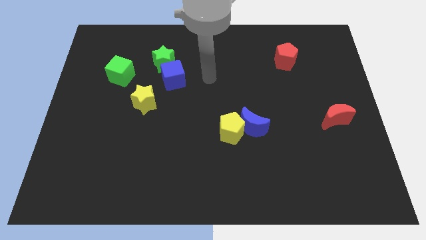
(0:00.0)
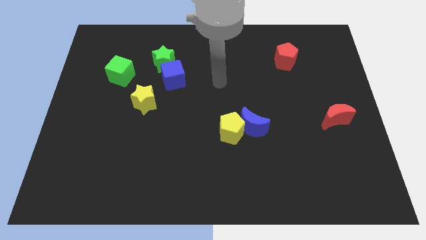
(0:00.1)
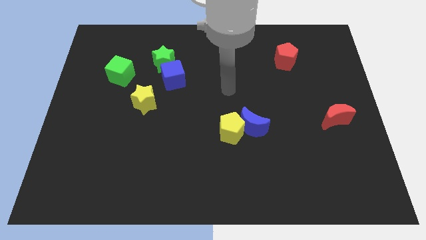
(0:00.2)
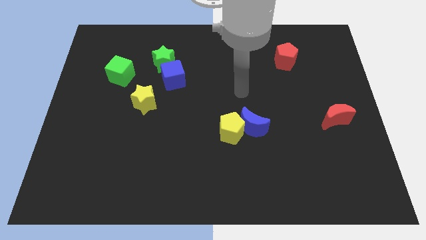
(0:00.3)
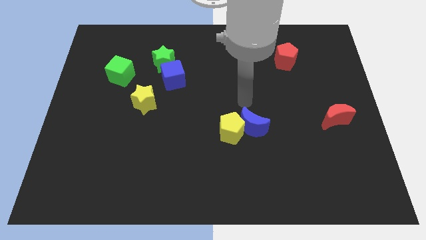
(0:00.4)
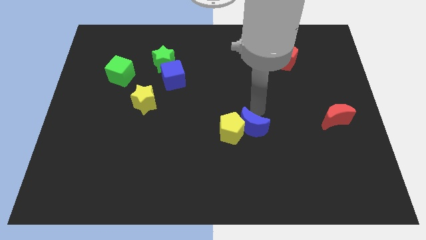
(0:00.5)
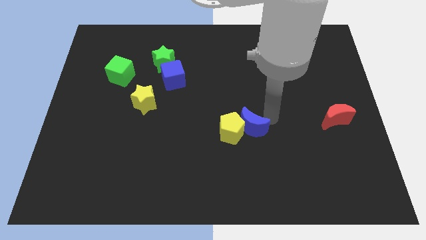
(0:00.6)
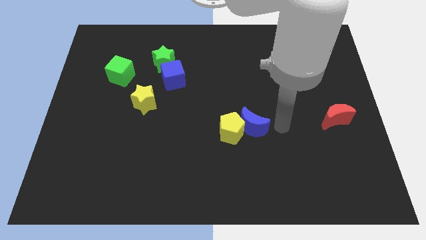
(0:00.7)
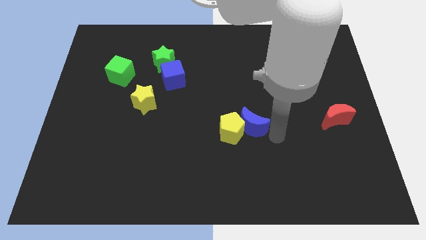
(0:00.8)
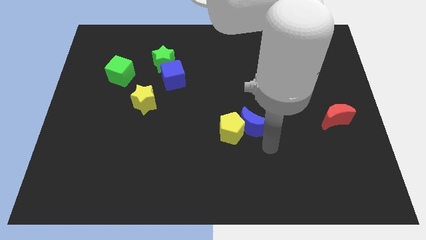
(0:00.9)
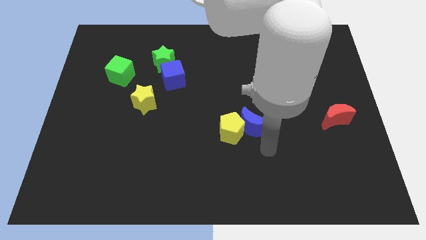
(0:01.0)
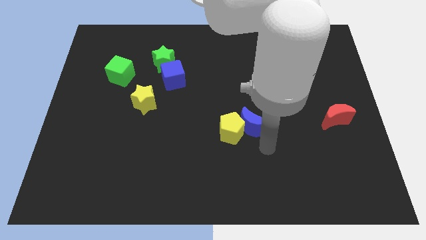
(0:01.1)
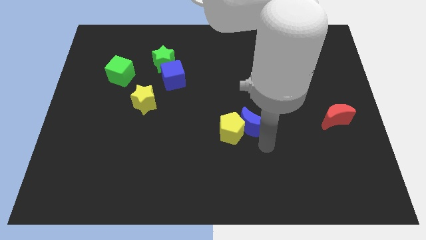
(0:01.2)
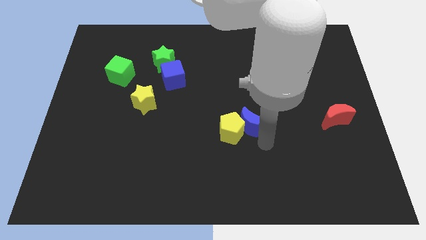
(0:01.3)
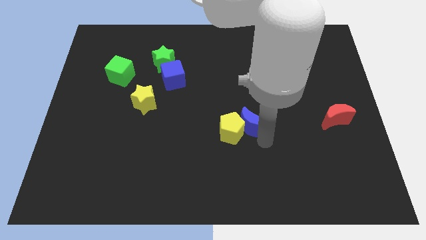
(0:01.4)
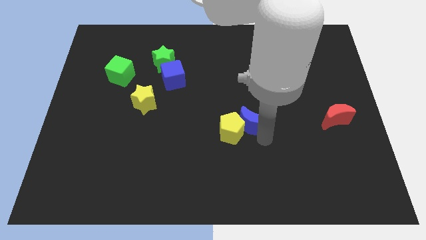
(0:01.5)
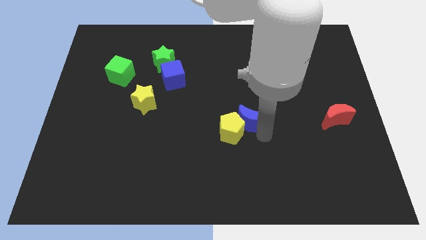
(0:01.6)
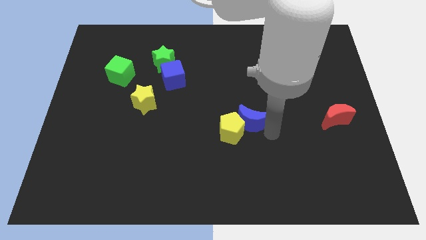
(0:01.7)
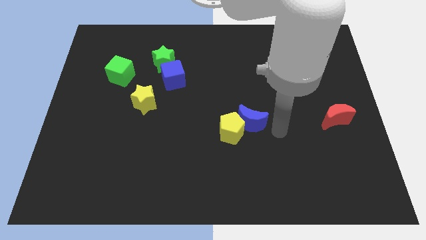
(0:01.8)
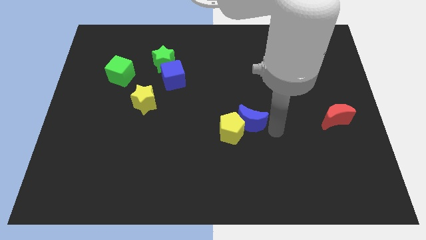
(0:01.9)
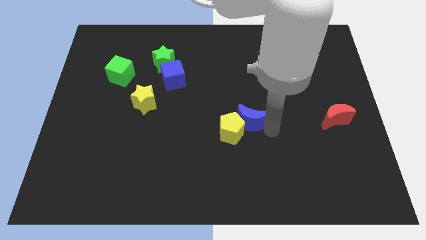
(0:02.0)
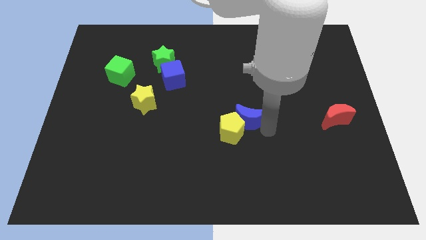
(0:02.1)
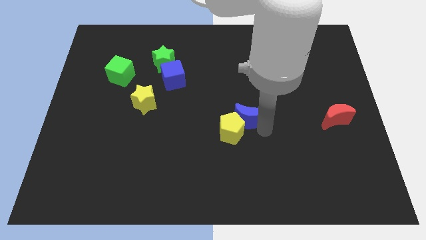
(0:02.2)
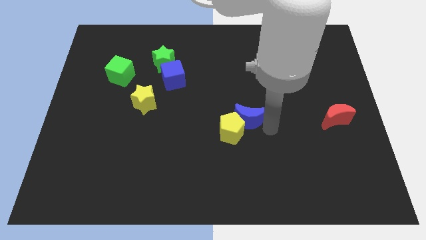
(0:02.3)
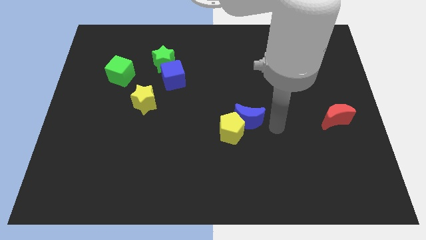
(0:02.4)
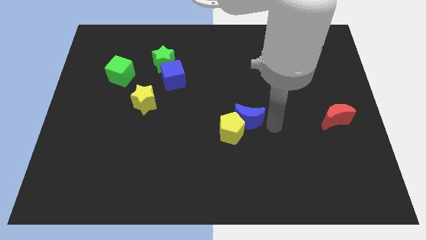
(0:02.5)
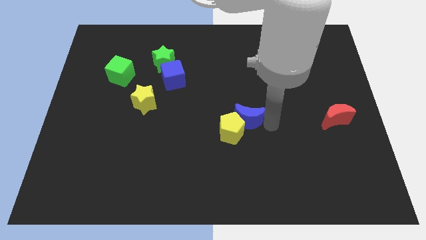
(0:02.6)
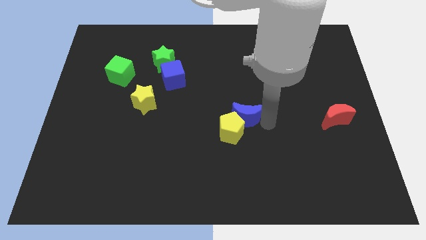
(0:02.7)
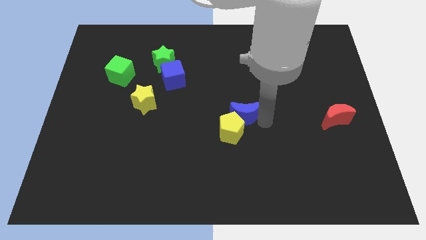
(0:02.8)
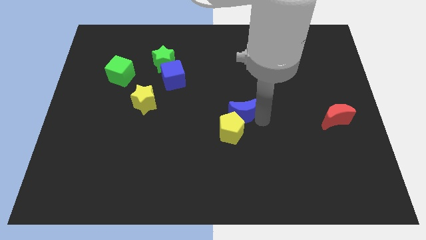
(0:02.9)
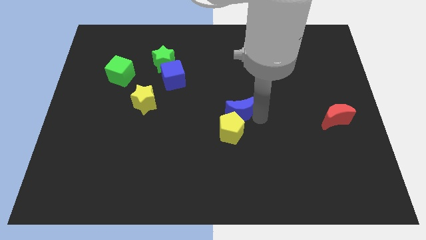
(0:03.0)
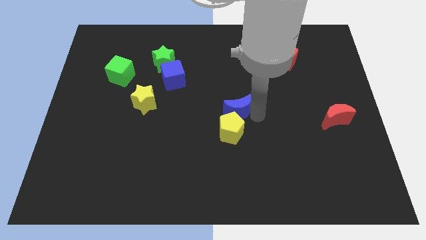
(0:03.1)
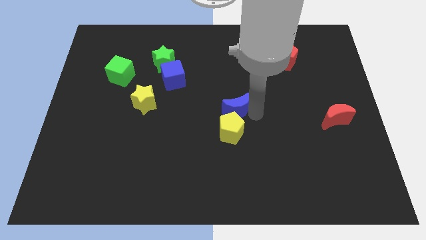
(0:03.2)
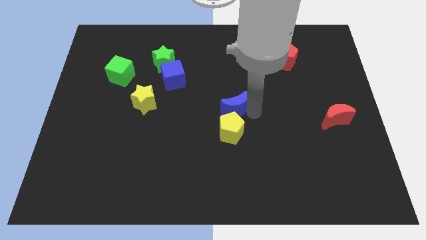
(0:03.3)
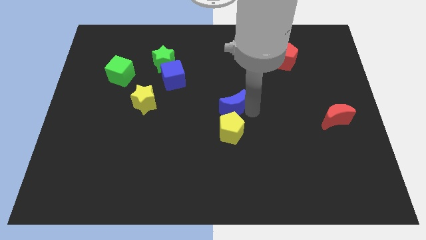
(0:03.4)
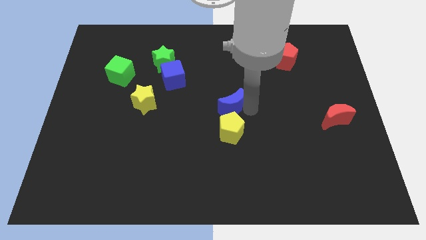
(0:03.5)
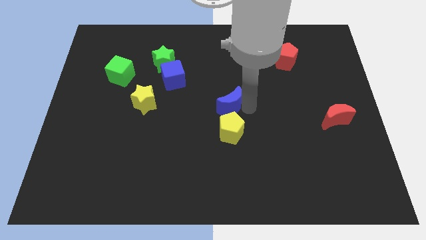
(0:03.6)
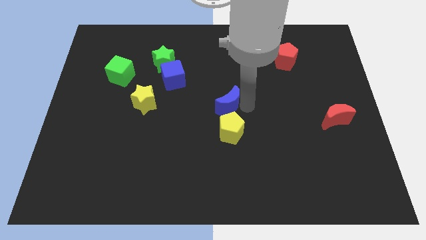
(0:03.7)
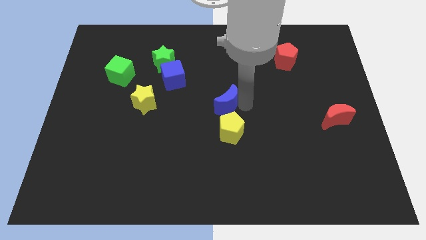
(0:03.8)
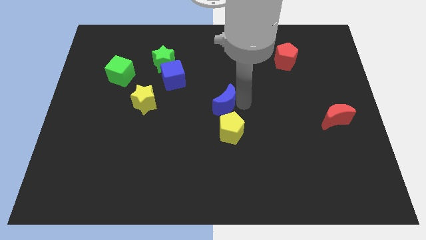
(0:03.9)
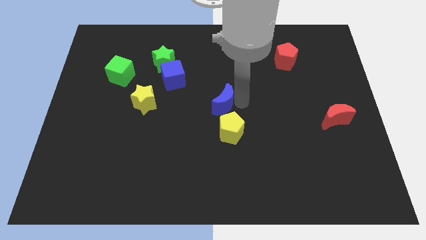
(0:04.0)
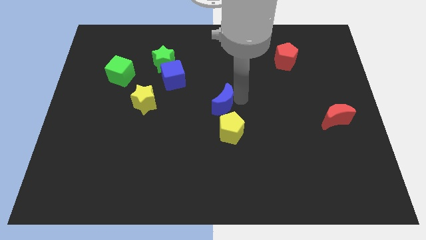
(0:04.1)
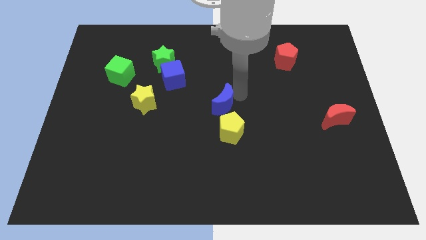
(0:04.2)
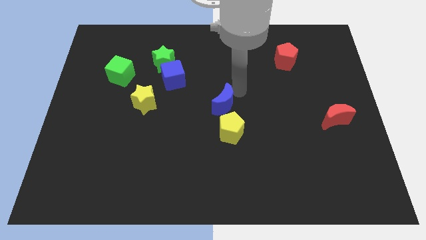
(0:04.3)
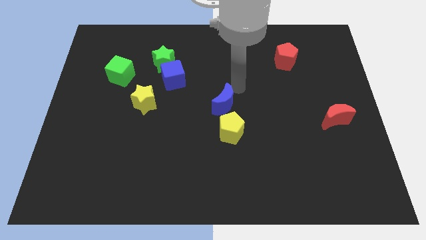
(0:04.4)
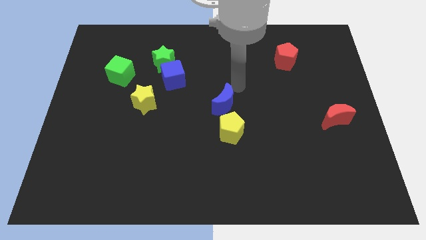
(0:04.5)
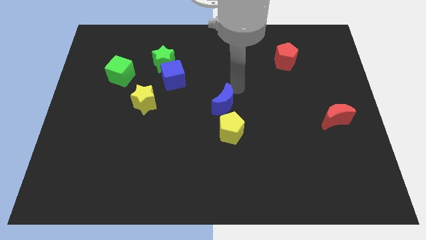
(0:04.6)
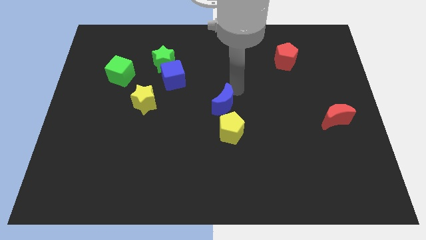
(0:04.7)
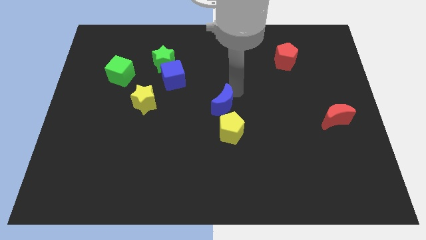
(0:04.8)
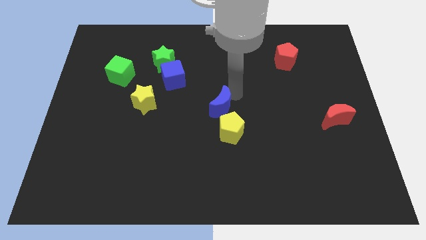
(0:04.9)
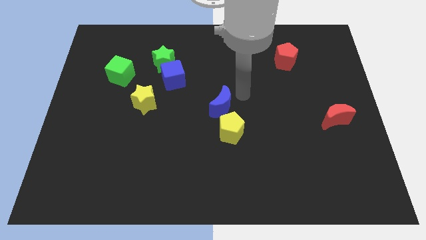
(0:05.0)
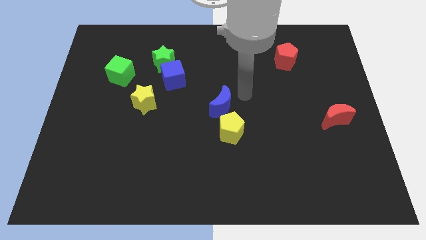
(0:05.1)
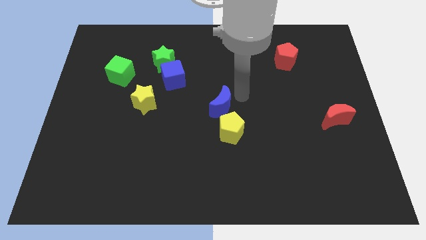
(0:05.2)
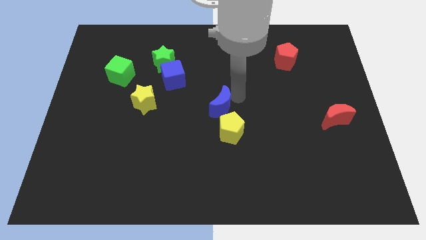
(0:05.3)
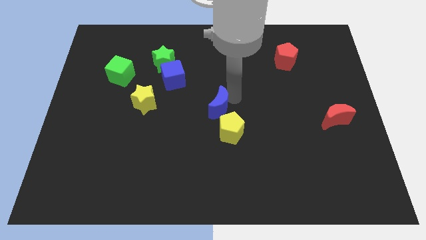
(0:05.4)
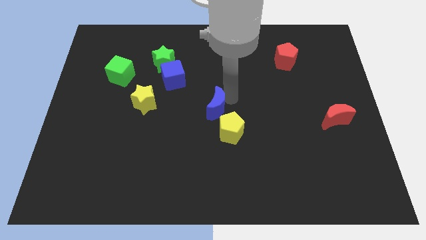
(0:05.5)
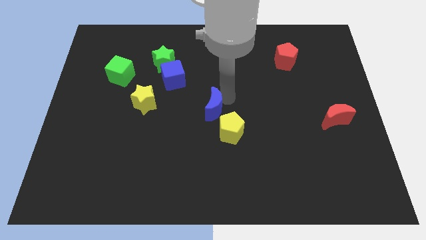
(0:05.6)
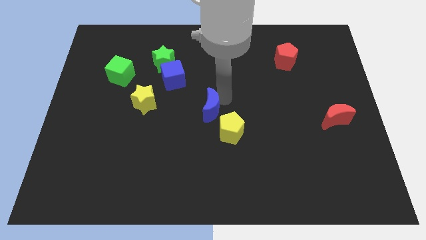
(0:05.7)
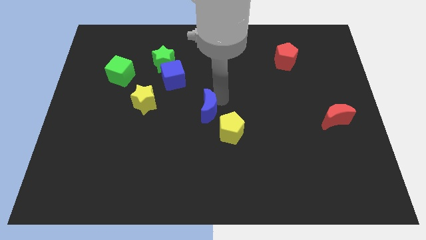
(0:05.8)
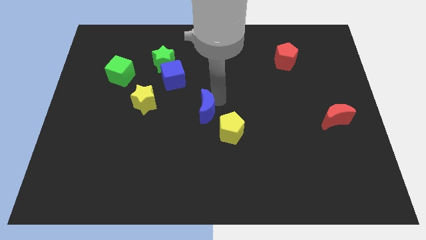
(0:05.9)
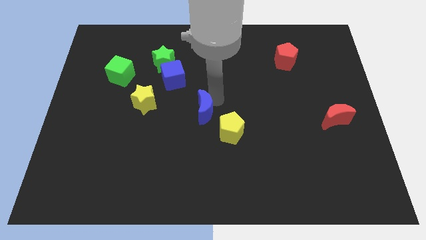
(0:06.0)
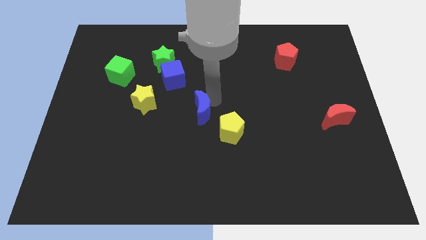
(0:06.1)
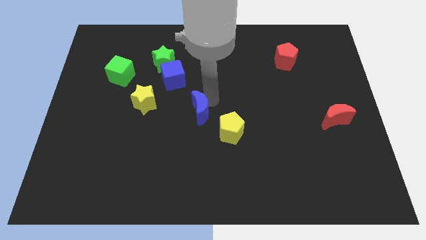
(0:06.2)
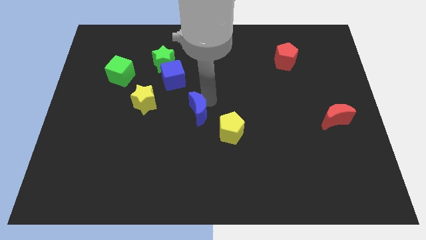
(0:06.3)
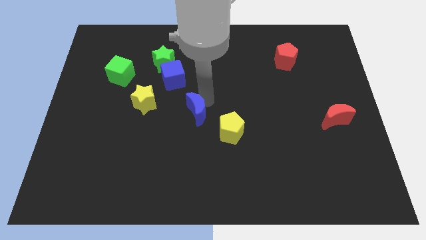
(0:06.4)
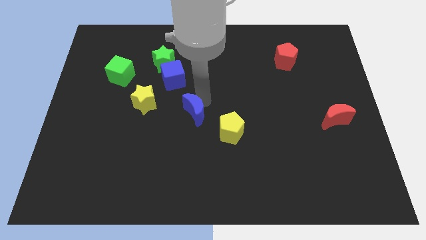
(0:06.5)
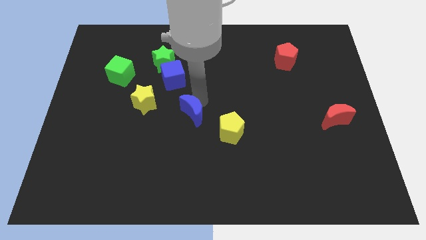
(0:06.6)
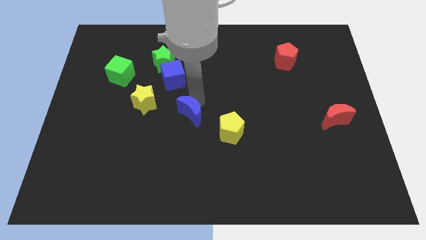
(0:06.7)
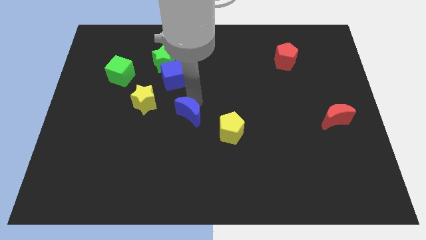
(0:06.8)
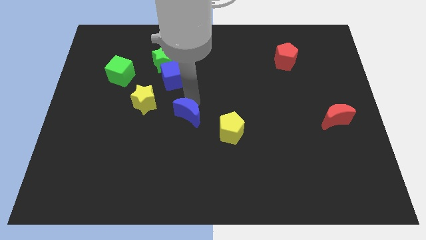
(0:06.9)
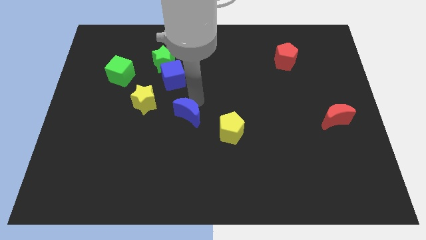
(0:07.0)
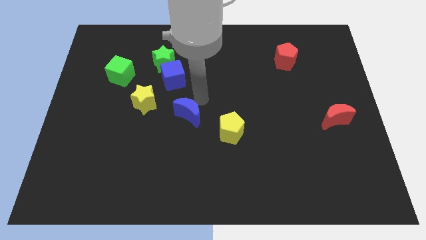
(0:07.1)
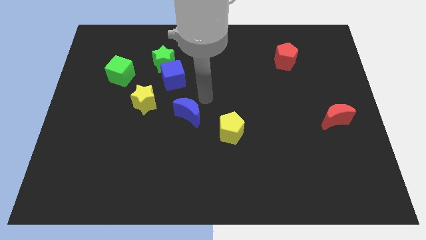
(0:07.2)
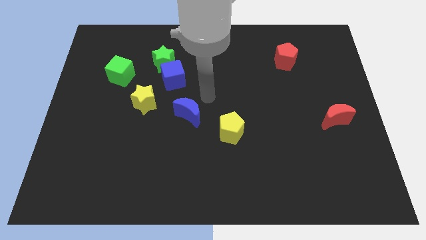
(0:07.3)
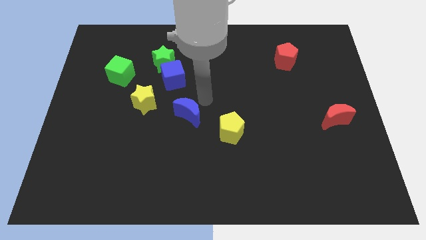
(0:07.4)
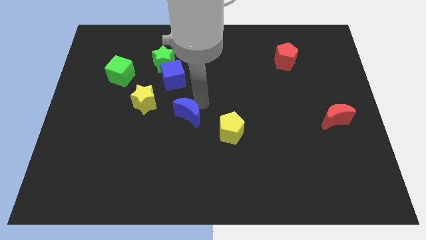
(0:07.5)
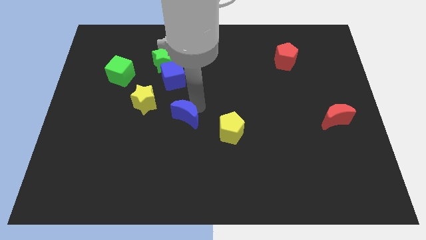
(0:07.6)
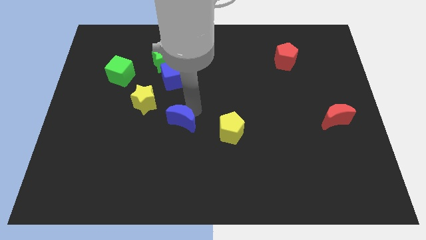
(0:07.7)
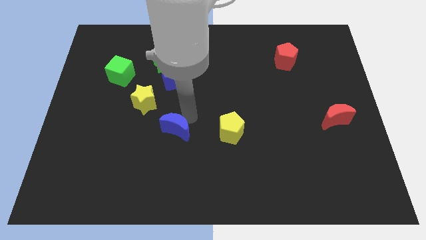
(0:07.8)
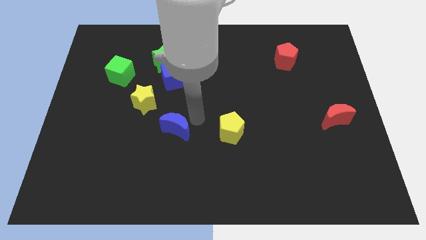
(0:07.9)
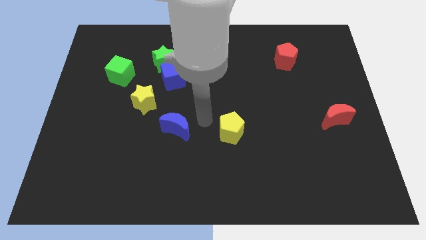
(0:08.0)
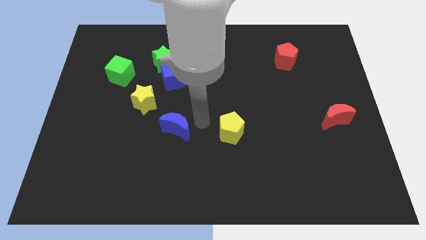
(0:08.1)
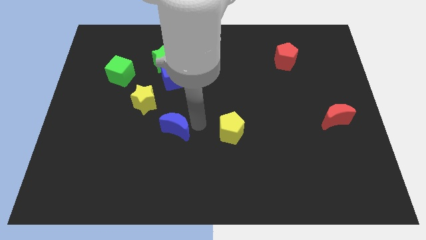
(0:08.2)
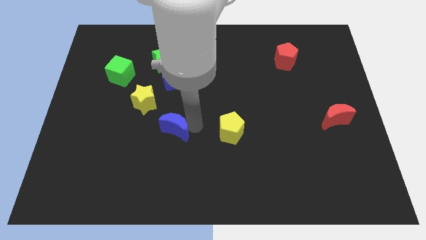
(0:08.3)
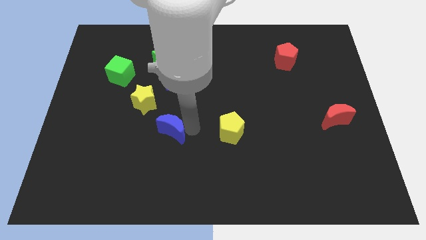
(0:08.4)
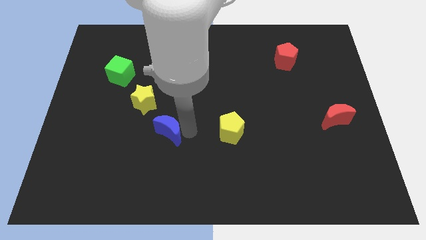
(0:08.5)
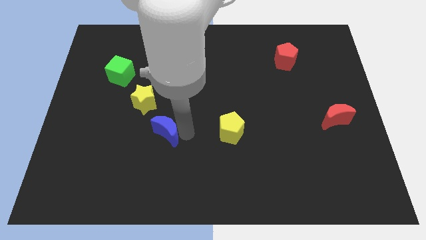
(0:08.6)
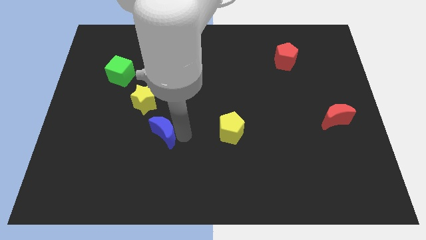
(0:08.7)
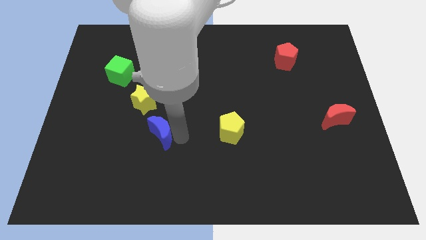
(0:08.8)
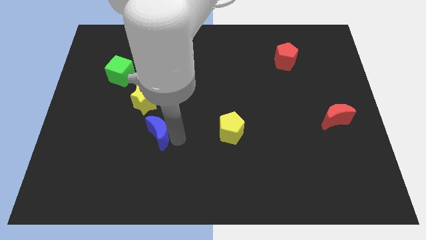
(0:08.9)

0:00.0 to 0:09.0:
put the blue moon below the yellow star
